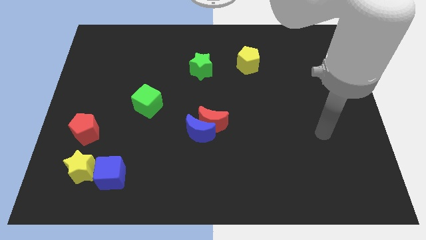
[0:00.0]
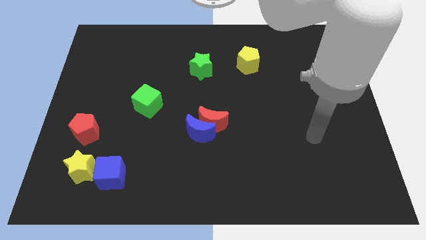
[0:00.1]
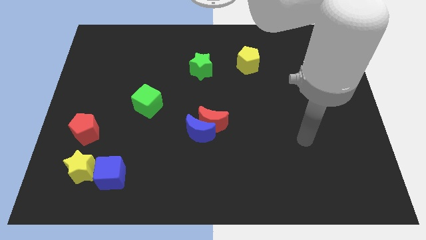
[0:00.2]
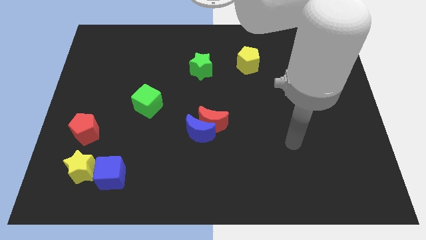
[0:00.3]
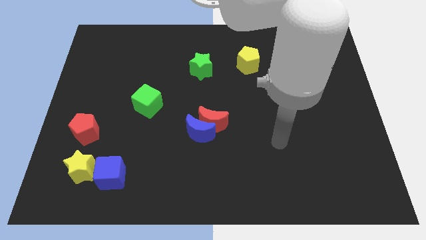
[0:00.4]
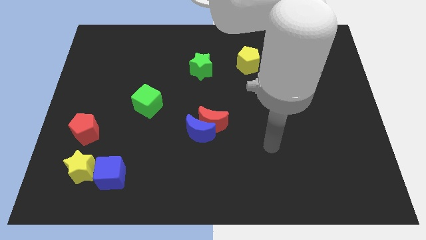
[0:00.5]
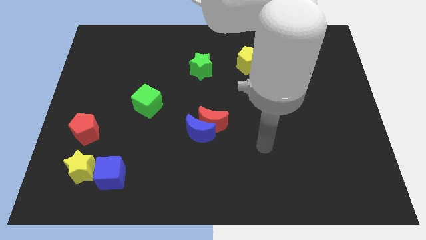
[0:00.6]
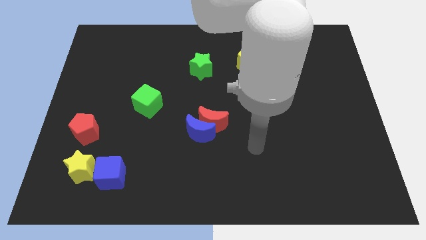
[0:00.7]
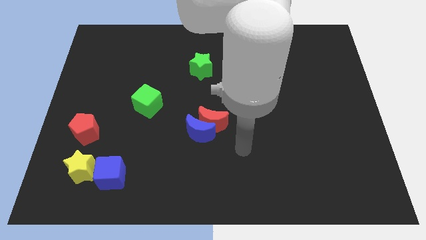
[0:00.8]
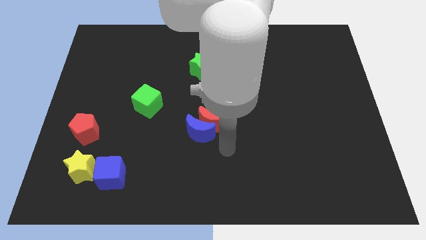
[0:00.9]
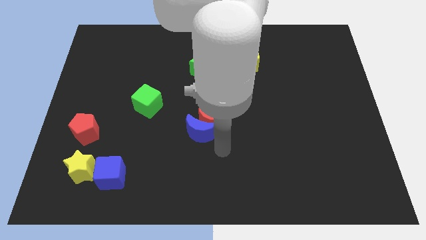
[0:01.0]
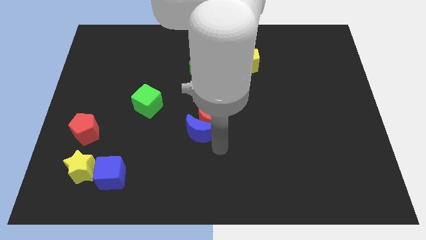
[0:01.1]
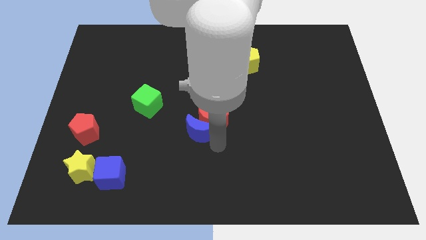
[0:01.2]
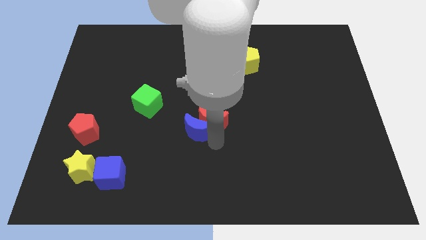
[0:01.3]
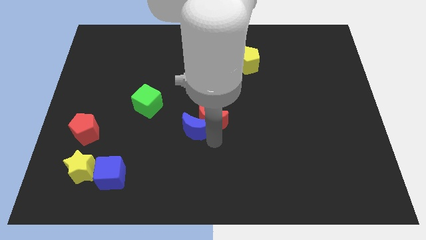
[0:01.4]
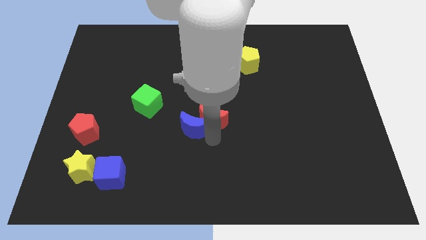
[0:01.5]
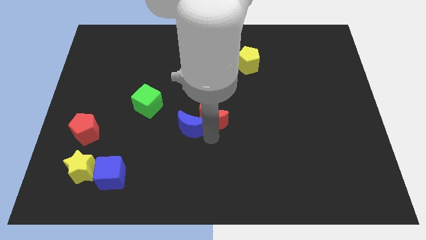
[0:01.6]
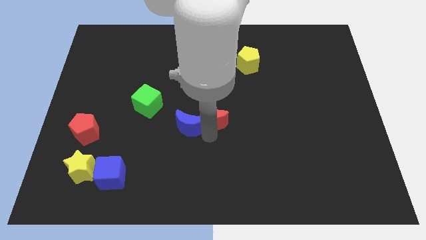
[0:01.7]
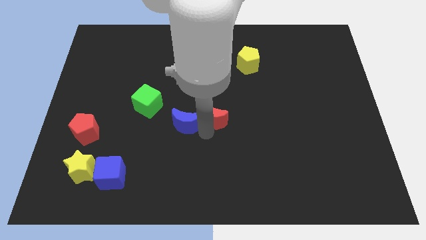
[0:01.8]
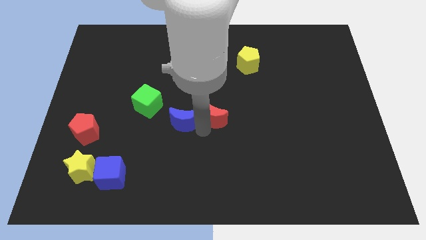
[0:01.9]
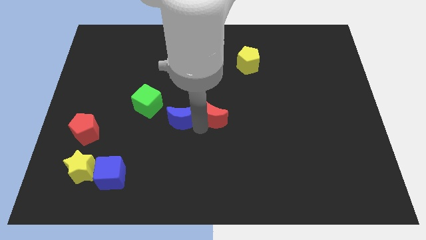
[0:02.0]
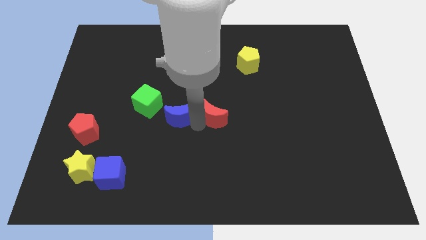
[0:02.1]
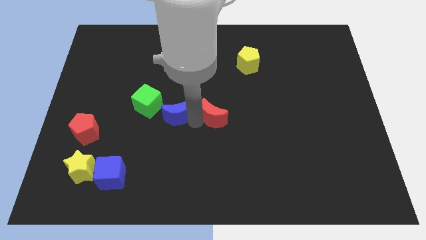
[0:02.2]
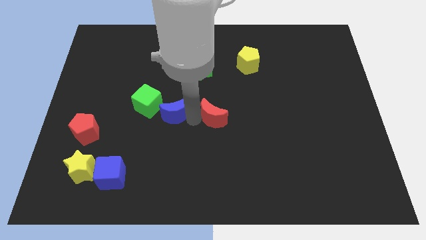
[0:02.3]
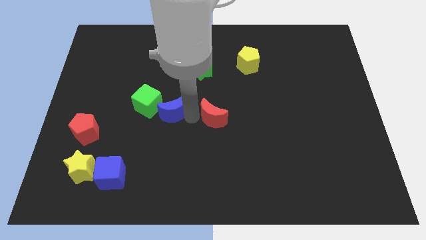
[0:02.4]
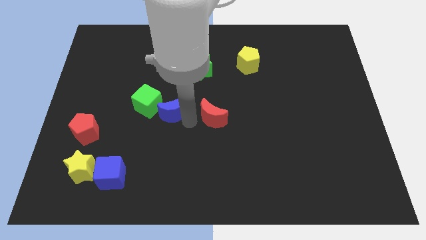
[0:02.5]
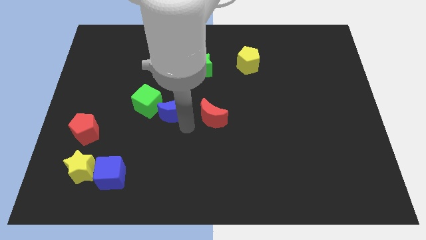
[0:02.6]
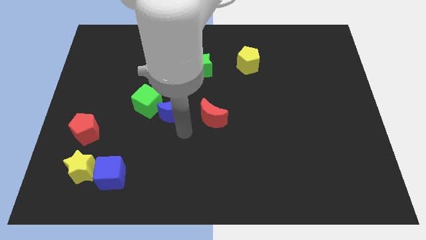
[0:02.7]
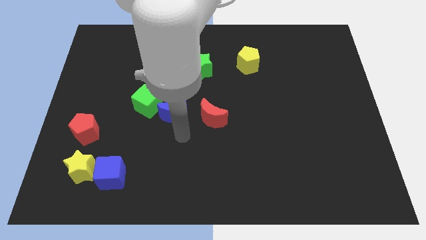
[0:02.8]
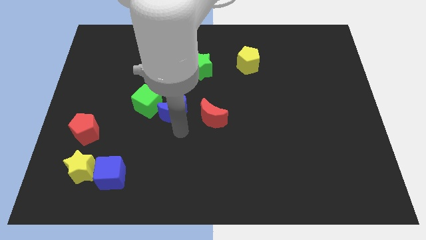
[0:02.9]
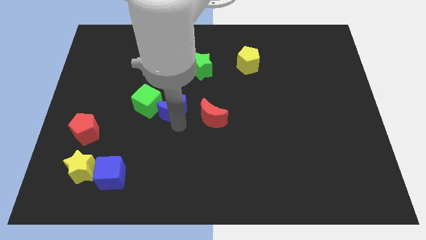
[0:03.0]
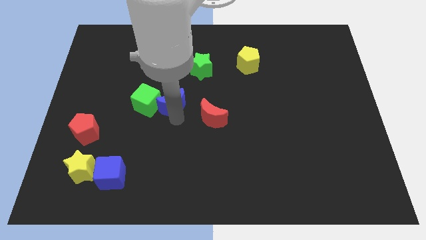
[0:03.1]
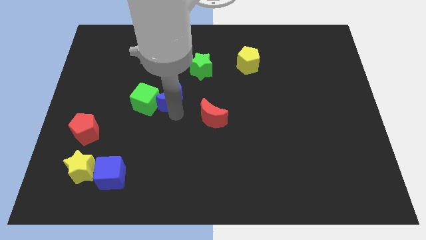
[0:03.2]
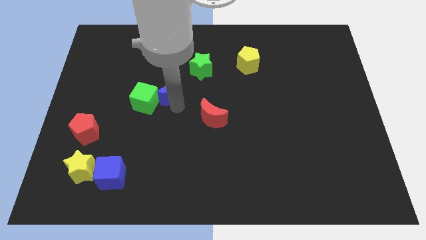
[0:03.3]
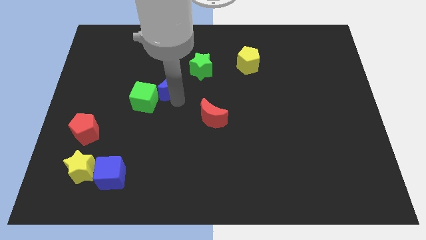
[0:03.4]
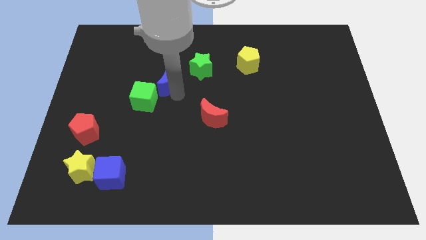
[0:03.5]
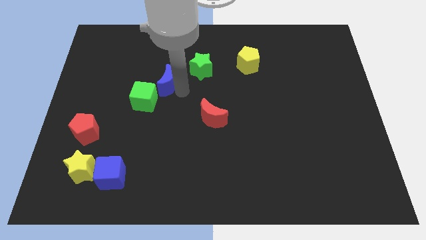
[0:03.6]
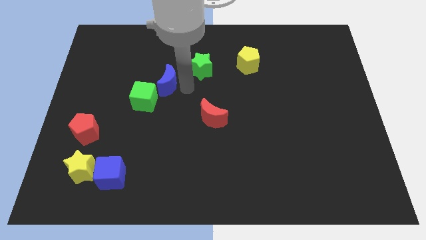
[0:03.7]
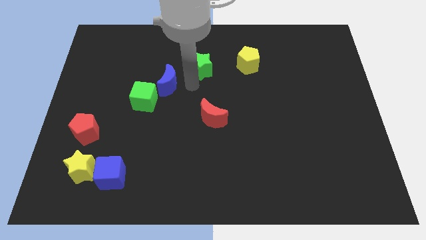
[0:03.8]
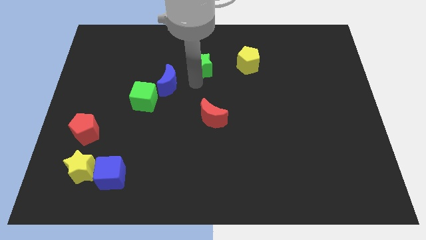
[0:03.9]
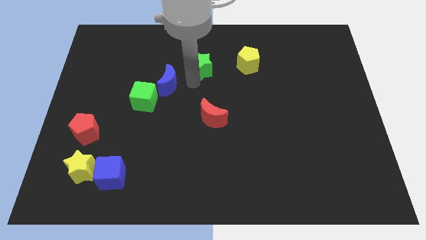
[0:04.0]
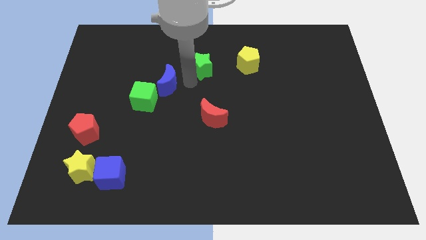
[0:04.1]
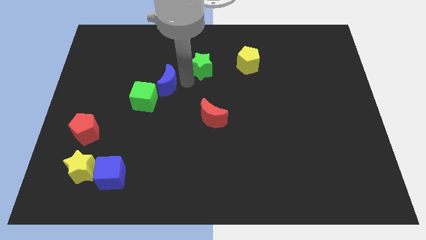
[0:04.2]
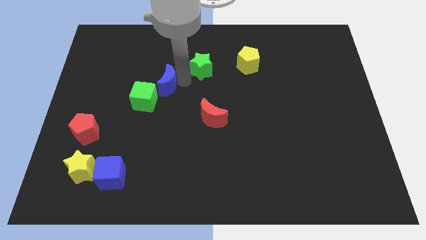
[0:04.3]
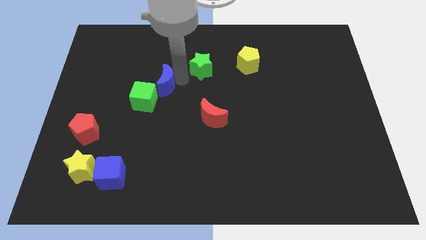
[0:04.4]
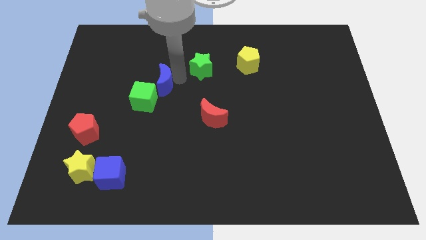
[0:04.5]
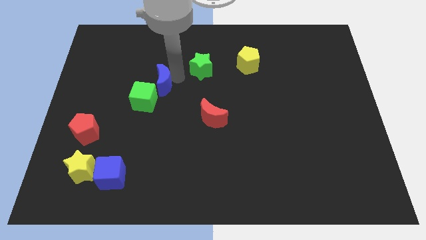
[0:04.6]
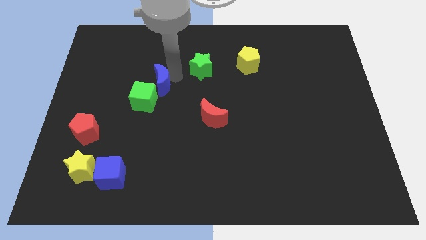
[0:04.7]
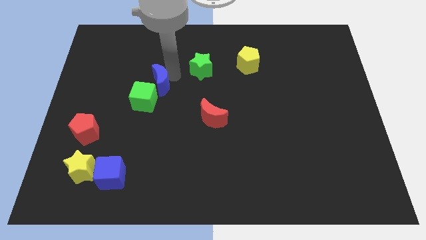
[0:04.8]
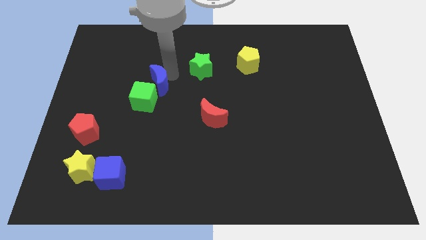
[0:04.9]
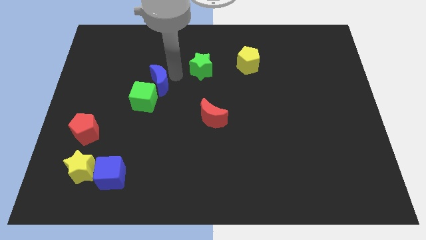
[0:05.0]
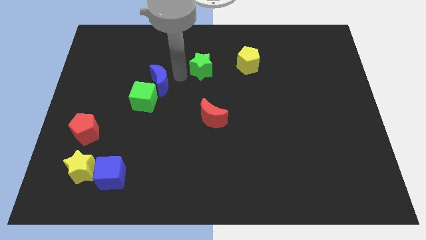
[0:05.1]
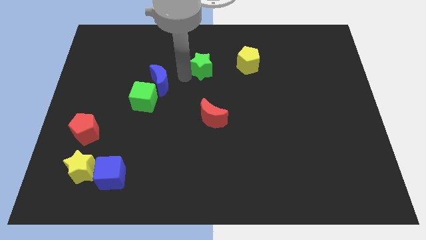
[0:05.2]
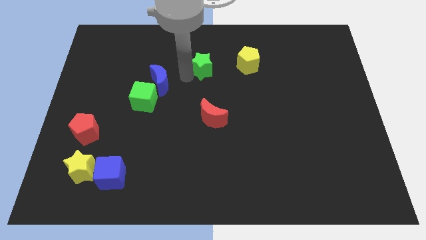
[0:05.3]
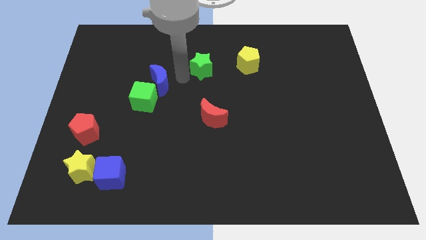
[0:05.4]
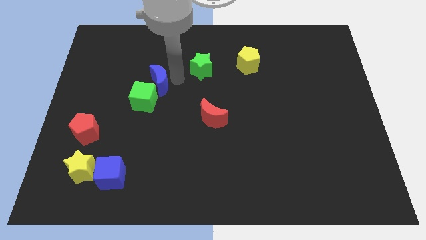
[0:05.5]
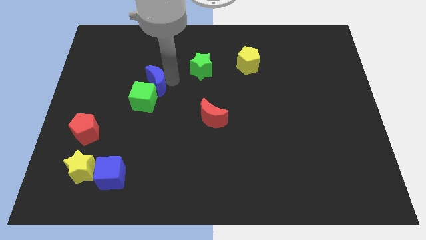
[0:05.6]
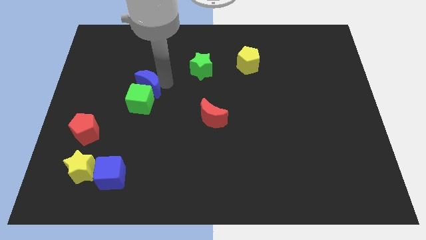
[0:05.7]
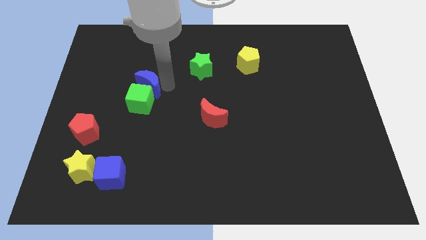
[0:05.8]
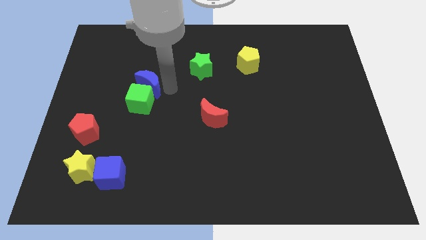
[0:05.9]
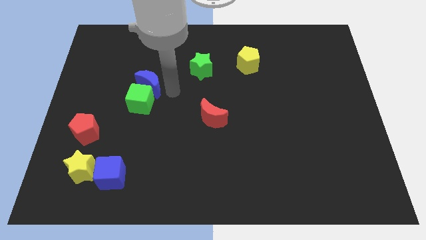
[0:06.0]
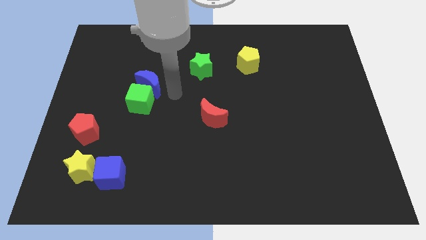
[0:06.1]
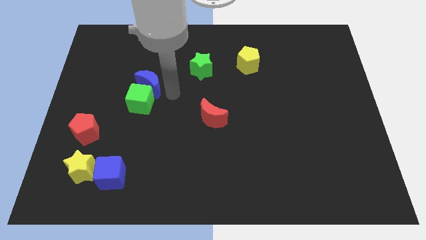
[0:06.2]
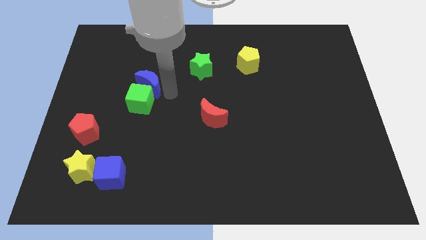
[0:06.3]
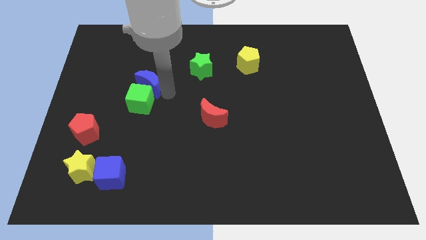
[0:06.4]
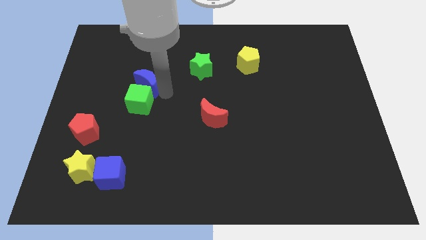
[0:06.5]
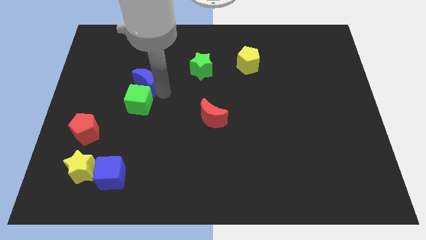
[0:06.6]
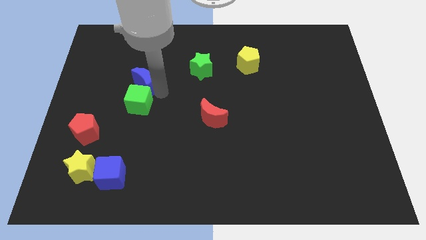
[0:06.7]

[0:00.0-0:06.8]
slide the blue moon upwards and then left

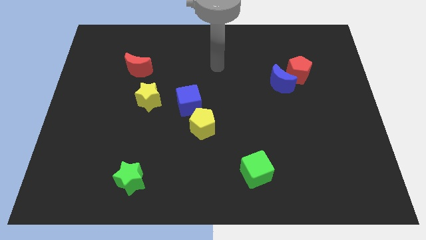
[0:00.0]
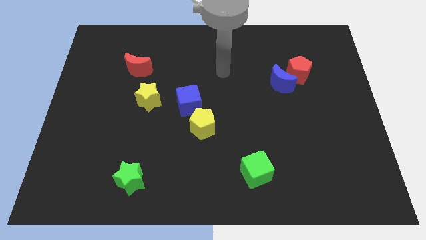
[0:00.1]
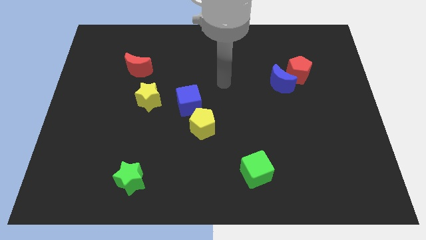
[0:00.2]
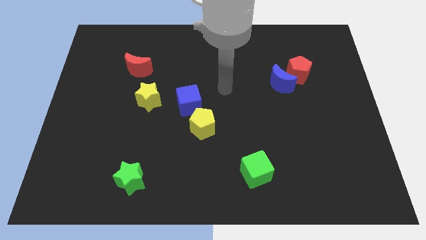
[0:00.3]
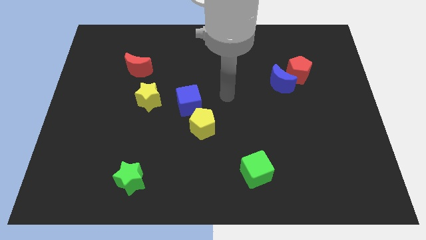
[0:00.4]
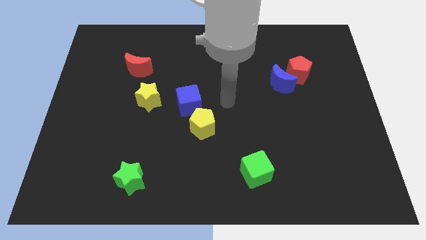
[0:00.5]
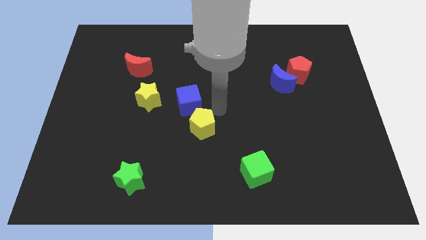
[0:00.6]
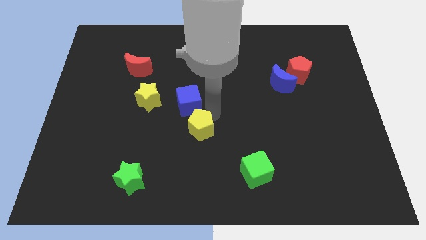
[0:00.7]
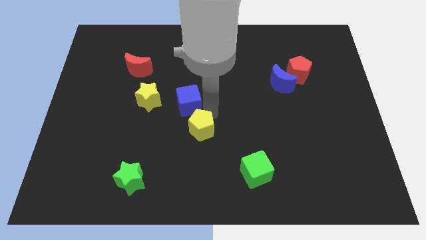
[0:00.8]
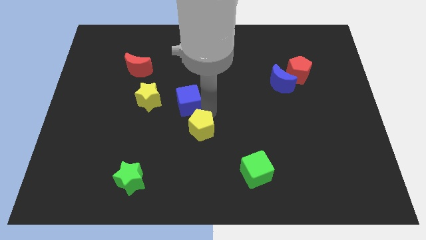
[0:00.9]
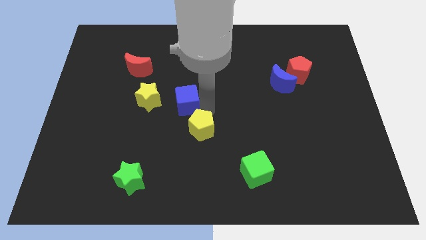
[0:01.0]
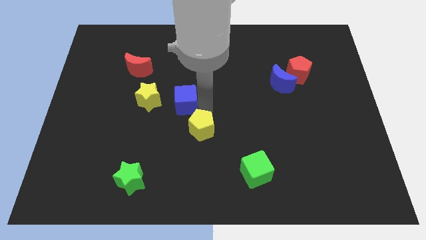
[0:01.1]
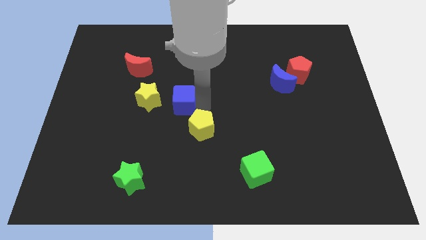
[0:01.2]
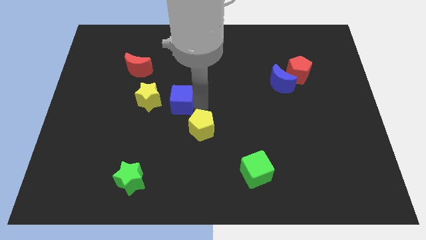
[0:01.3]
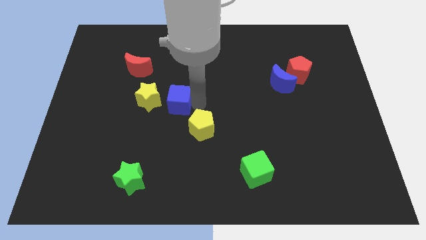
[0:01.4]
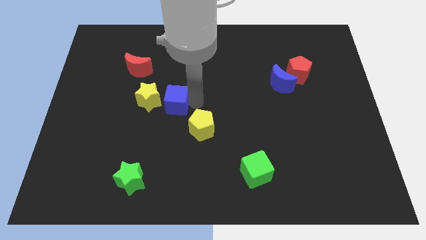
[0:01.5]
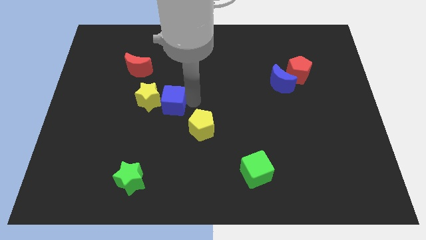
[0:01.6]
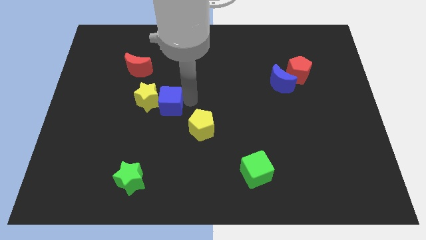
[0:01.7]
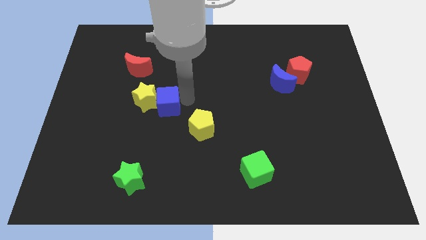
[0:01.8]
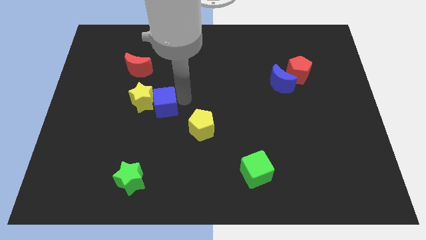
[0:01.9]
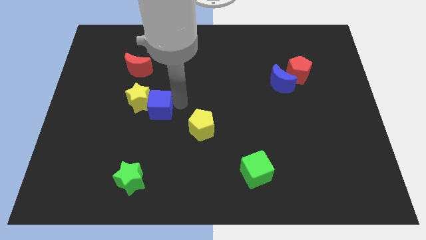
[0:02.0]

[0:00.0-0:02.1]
move the blue cube left somewhat
